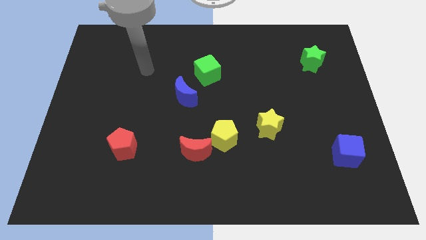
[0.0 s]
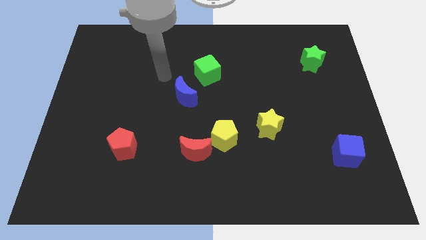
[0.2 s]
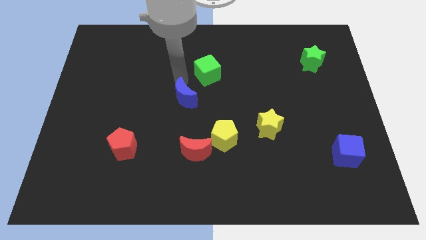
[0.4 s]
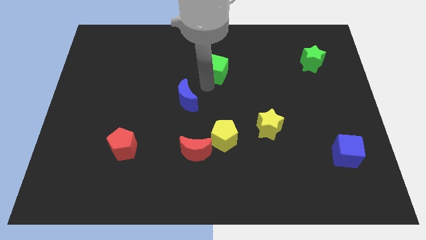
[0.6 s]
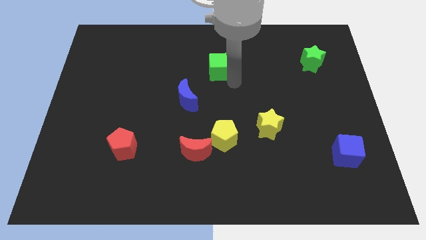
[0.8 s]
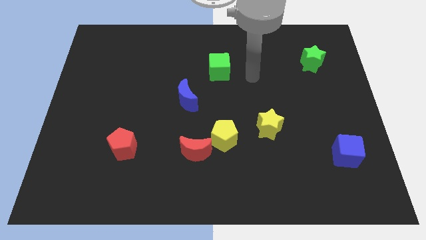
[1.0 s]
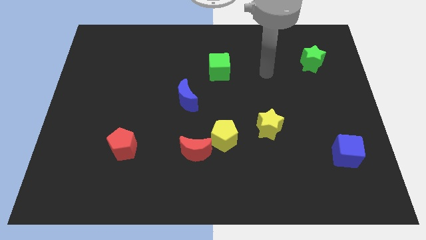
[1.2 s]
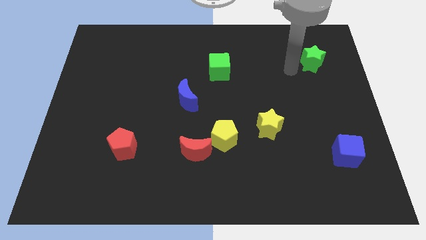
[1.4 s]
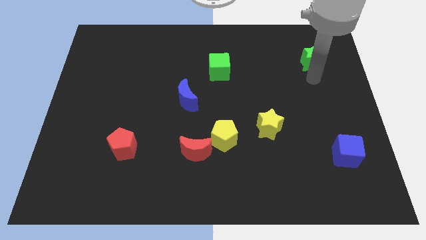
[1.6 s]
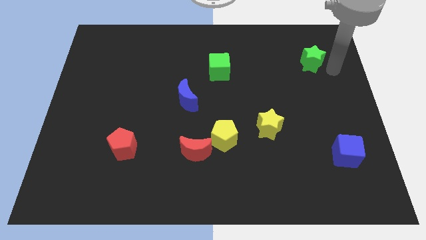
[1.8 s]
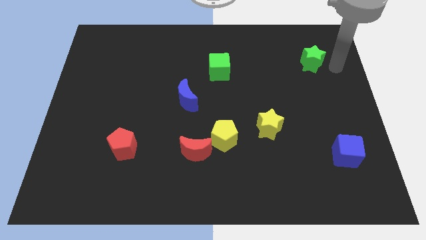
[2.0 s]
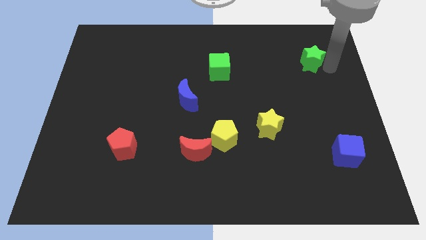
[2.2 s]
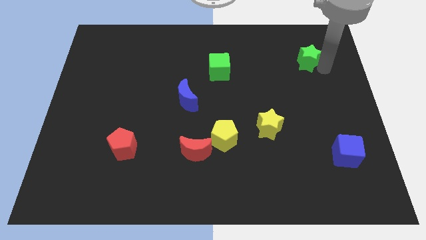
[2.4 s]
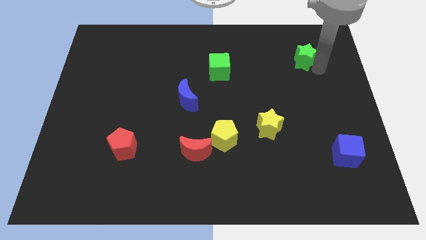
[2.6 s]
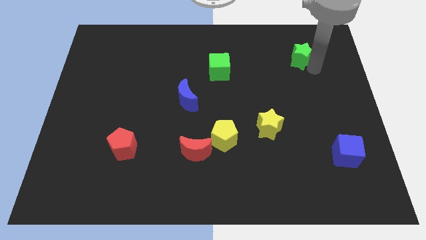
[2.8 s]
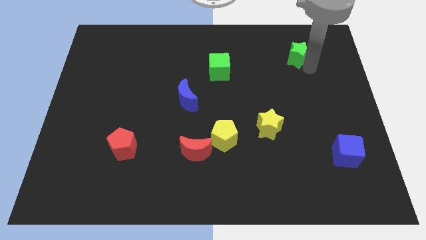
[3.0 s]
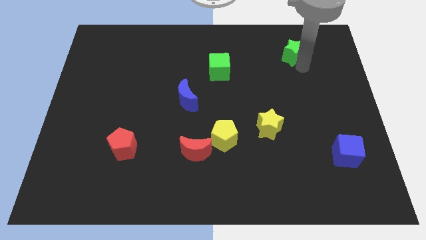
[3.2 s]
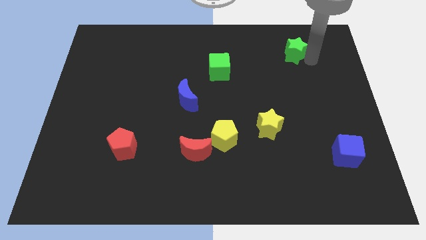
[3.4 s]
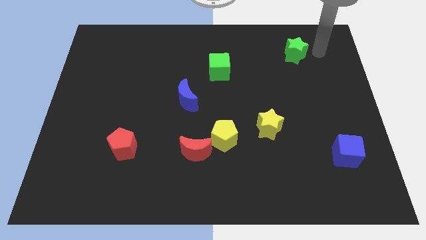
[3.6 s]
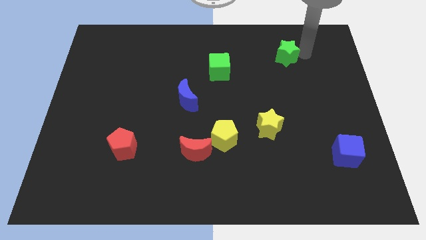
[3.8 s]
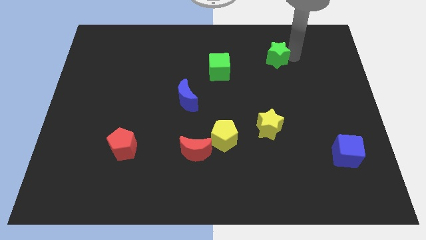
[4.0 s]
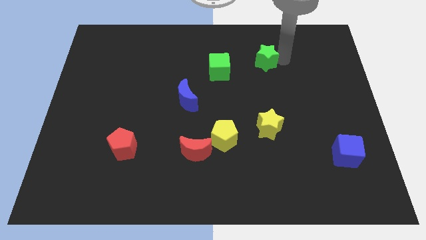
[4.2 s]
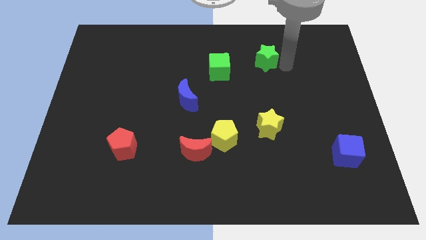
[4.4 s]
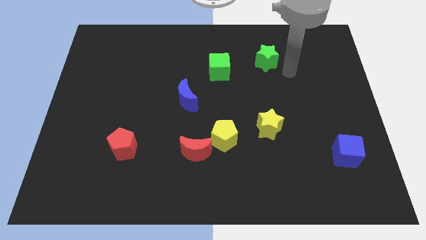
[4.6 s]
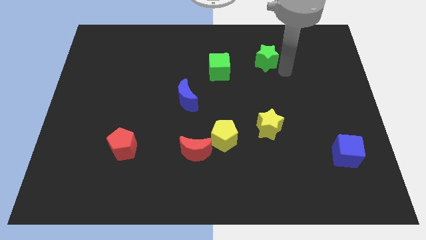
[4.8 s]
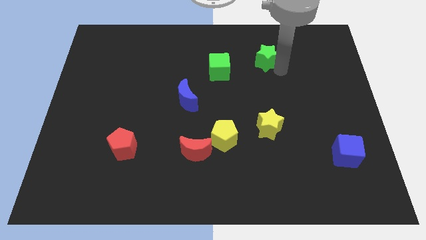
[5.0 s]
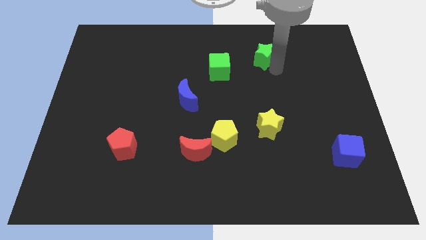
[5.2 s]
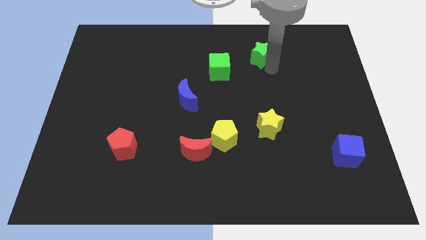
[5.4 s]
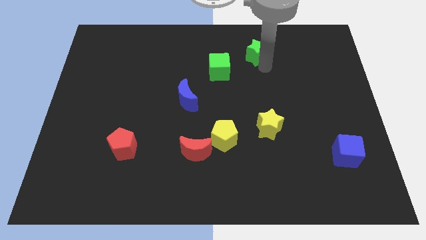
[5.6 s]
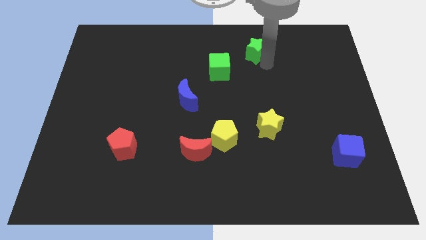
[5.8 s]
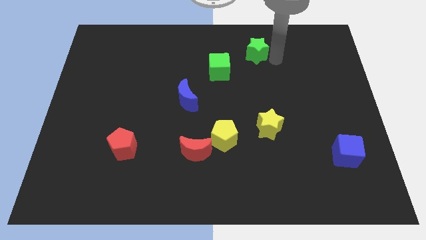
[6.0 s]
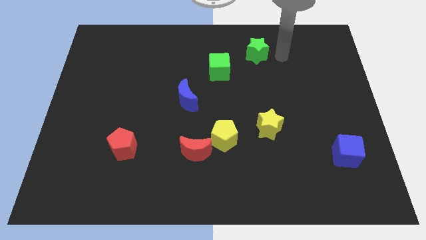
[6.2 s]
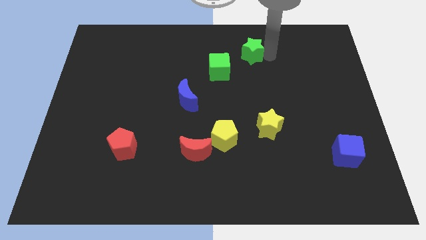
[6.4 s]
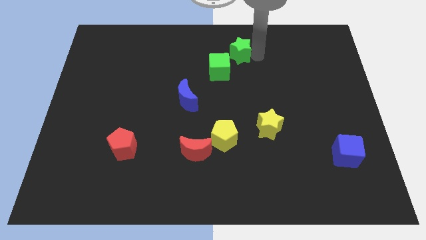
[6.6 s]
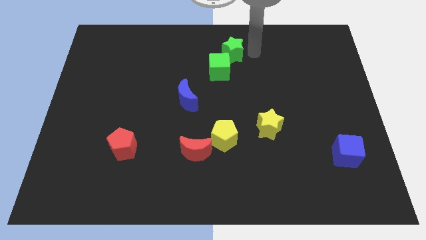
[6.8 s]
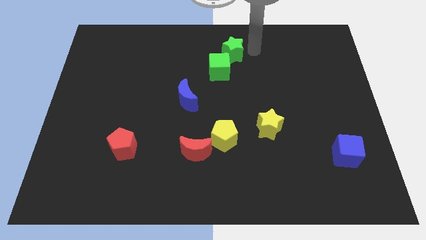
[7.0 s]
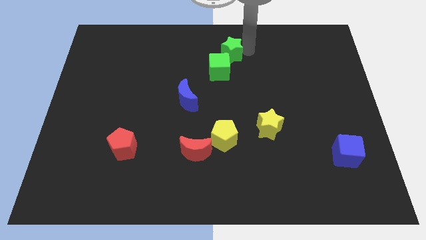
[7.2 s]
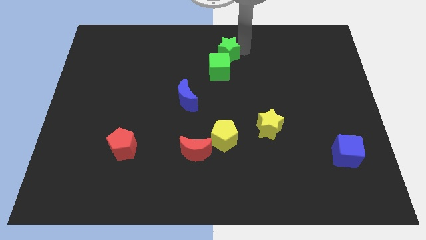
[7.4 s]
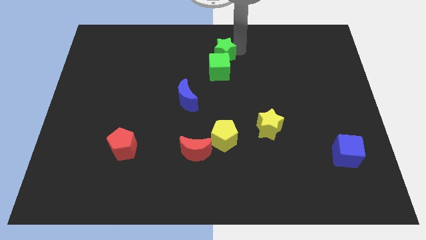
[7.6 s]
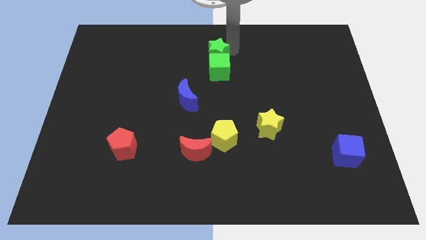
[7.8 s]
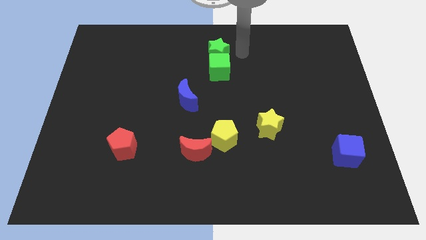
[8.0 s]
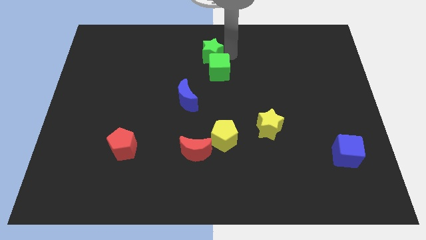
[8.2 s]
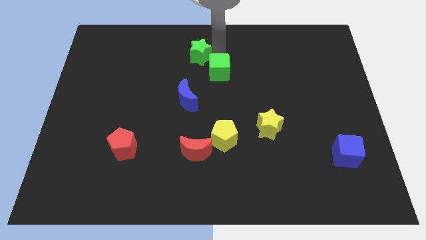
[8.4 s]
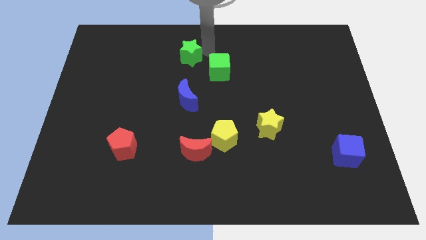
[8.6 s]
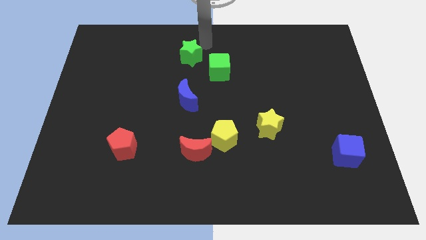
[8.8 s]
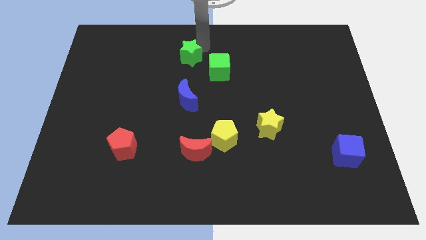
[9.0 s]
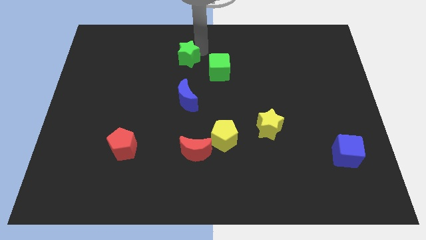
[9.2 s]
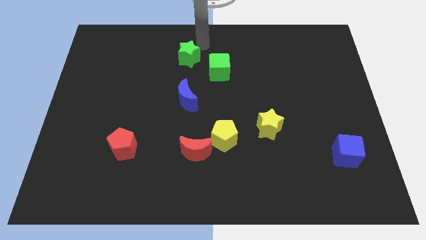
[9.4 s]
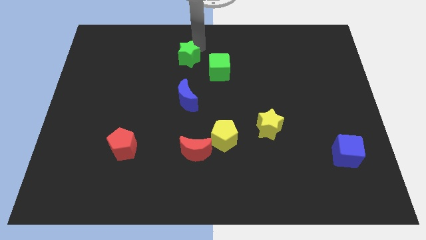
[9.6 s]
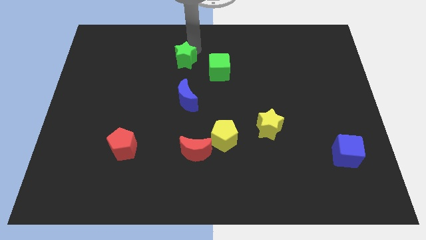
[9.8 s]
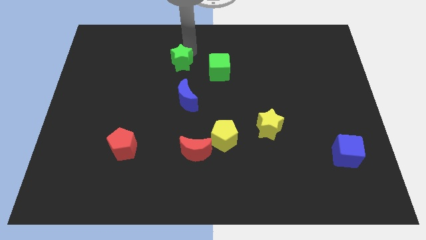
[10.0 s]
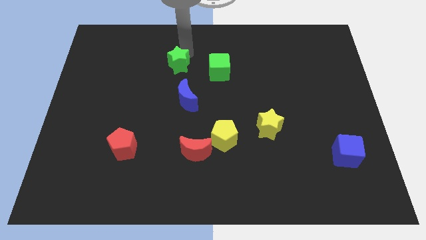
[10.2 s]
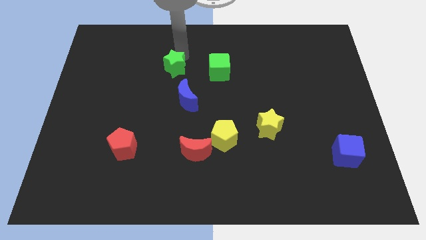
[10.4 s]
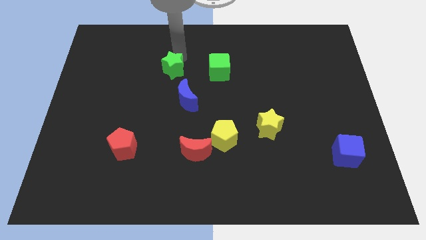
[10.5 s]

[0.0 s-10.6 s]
move the green star to the top left of the blue moon

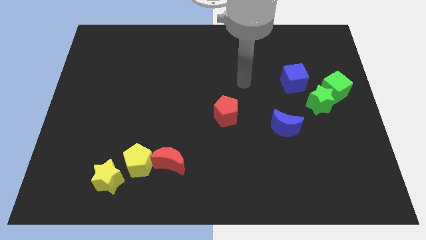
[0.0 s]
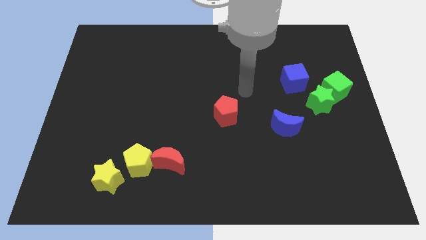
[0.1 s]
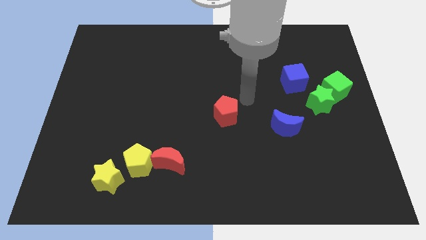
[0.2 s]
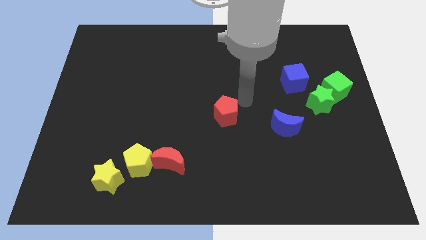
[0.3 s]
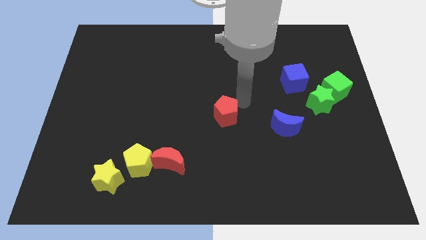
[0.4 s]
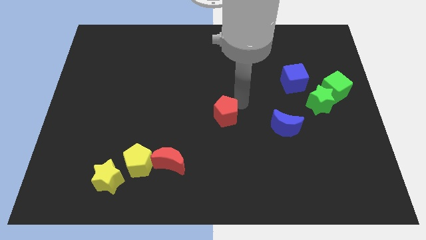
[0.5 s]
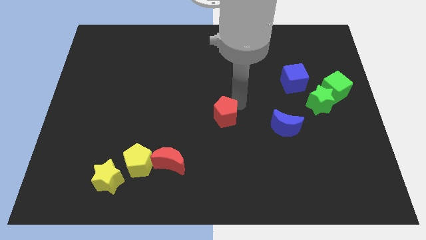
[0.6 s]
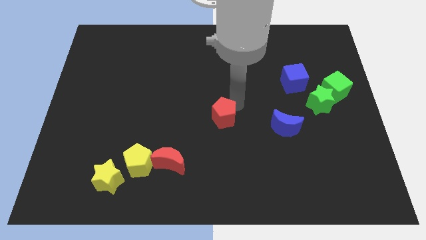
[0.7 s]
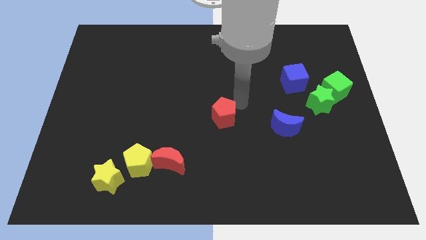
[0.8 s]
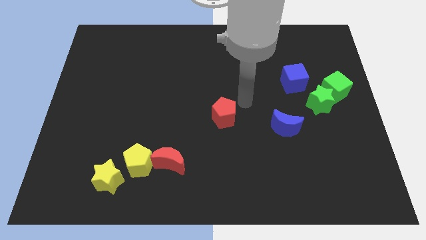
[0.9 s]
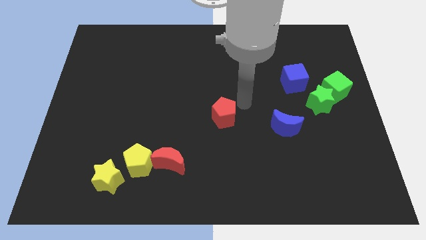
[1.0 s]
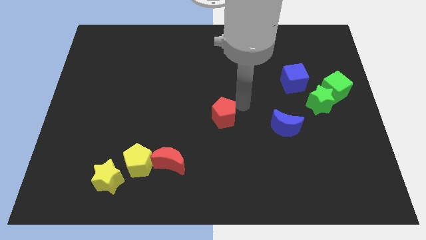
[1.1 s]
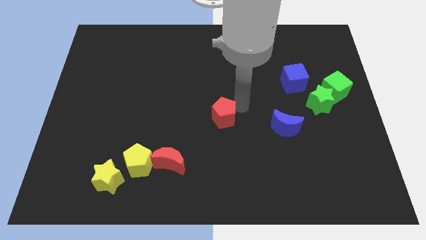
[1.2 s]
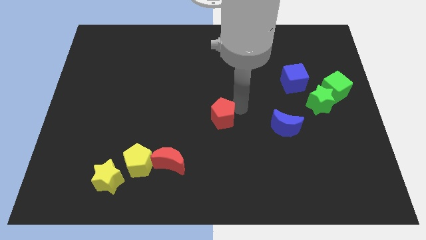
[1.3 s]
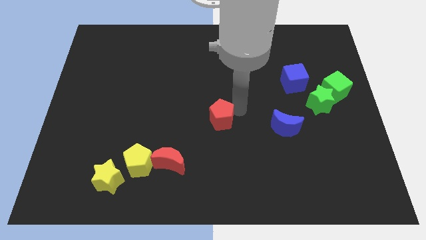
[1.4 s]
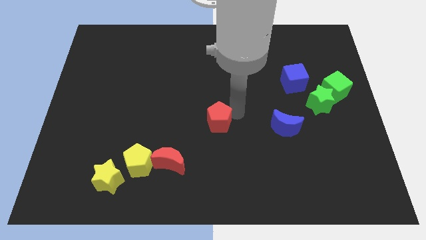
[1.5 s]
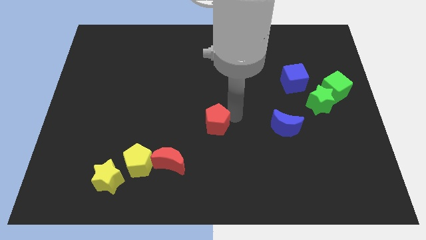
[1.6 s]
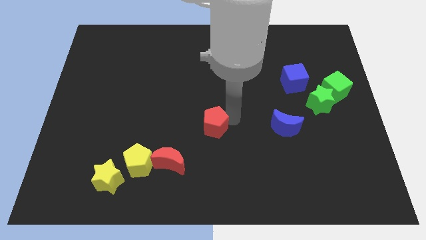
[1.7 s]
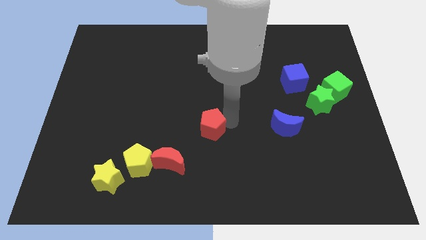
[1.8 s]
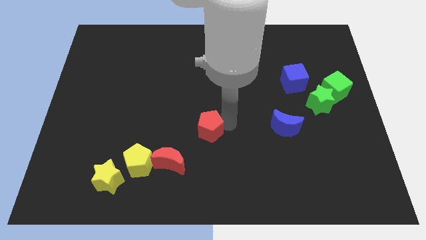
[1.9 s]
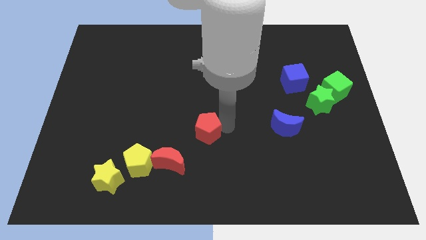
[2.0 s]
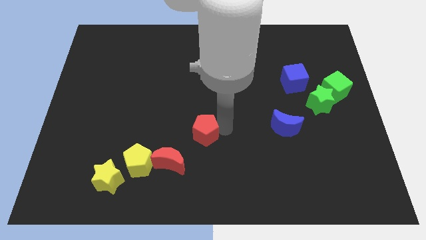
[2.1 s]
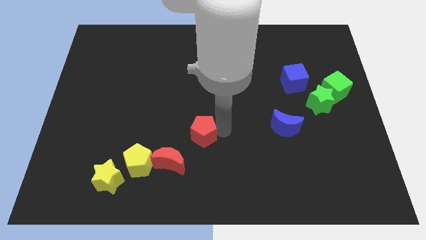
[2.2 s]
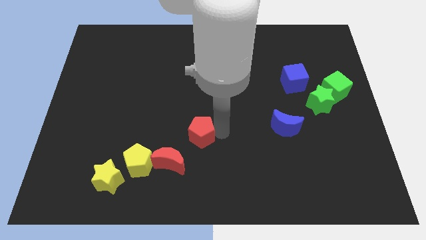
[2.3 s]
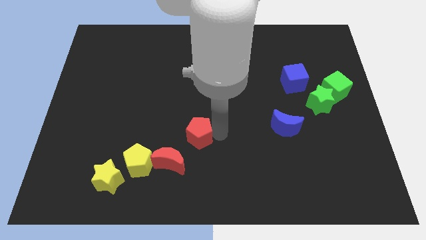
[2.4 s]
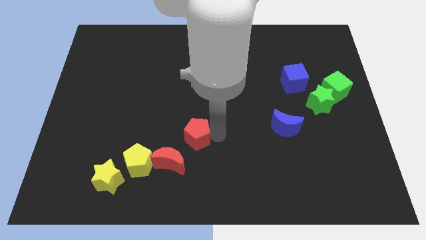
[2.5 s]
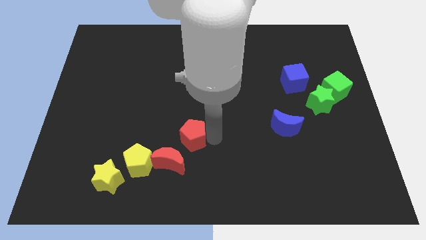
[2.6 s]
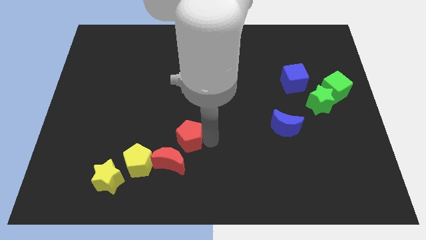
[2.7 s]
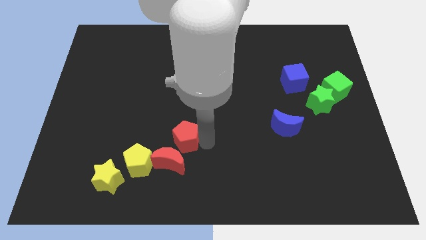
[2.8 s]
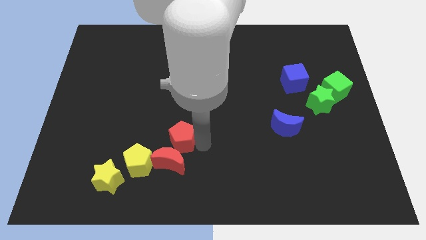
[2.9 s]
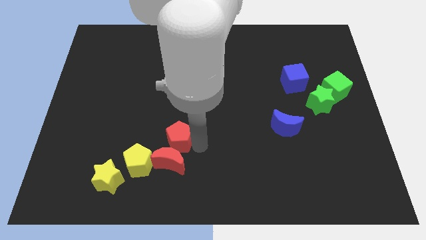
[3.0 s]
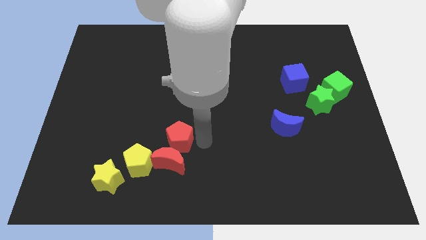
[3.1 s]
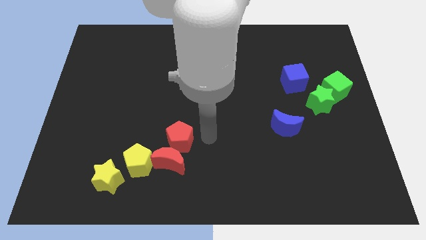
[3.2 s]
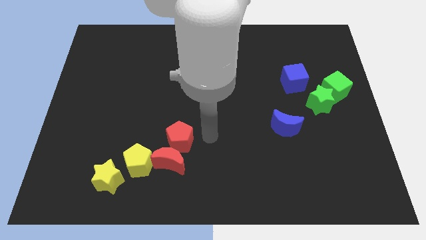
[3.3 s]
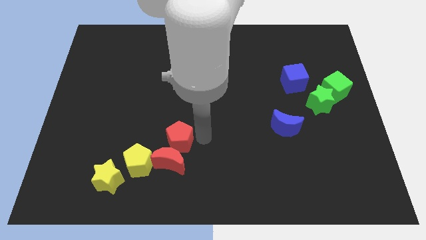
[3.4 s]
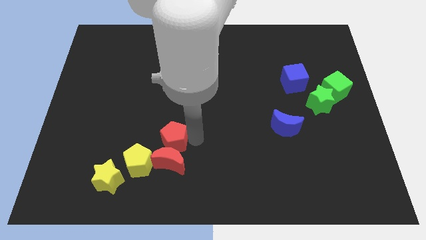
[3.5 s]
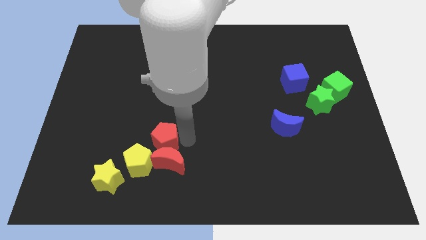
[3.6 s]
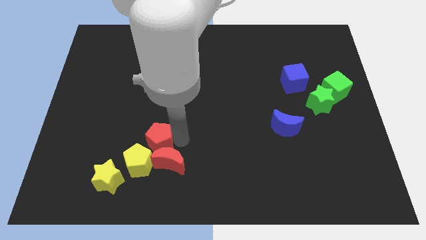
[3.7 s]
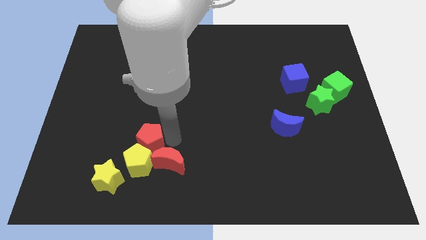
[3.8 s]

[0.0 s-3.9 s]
push the red pentagon to the top right side of the yellow star
